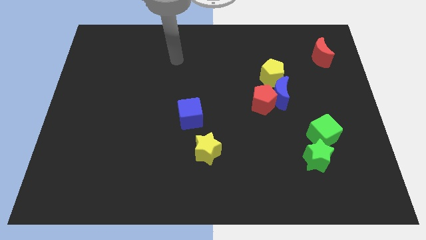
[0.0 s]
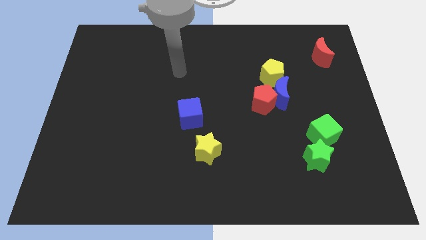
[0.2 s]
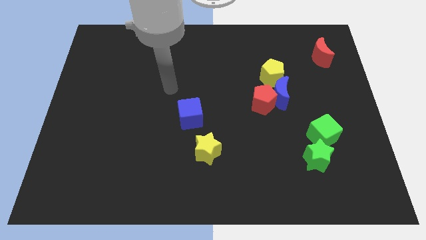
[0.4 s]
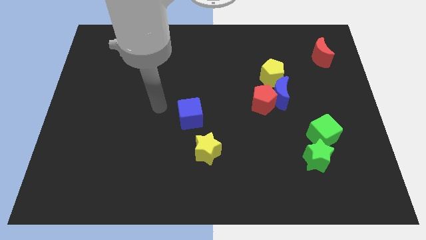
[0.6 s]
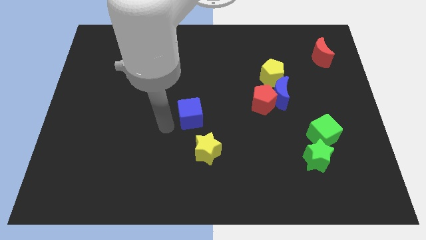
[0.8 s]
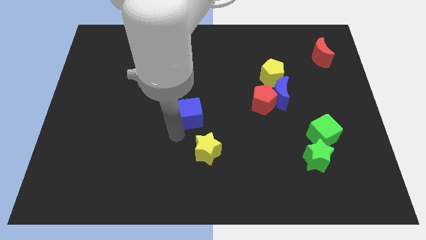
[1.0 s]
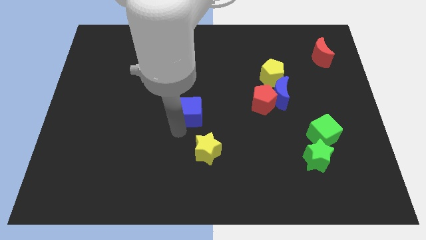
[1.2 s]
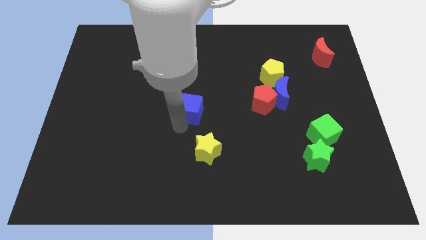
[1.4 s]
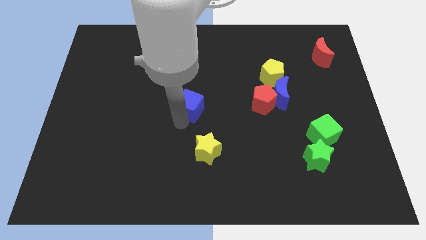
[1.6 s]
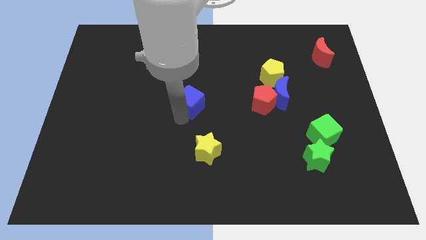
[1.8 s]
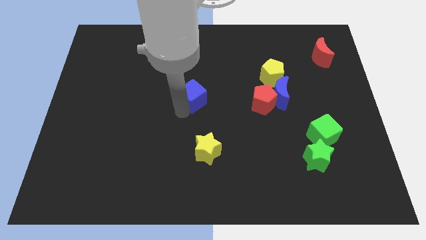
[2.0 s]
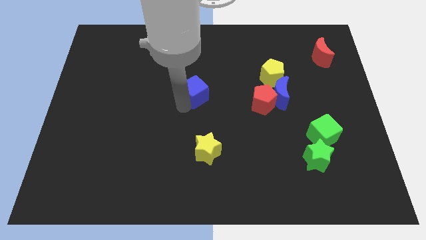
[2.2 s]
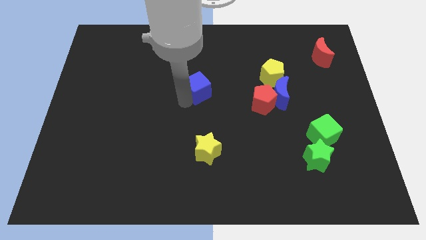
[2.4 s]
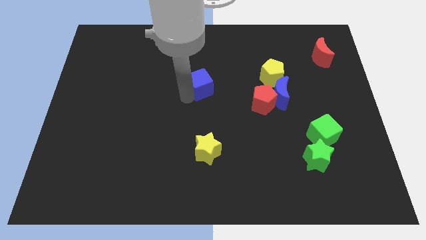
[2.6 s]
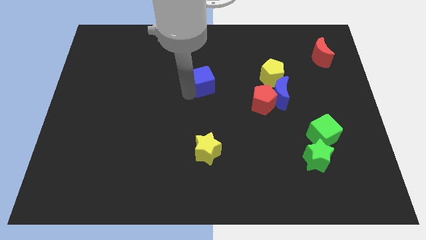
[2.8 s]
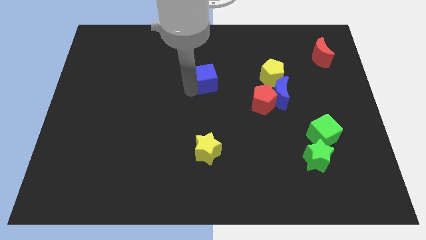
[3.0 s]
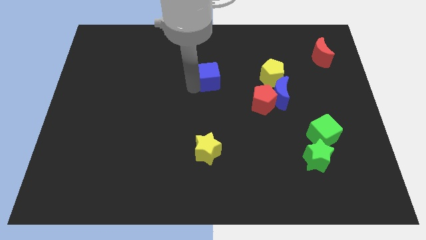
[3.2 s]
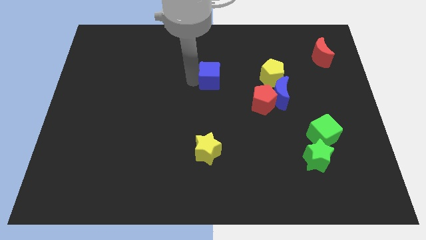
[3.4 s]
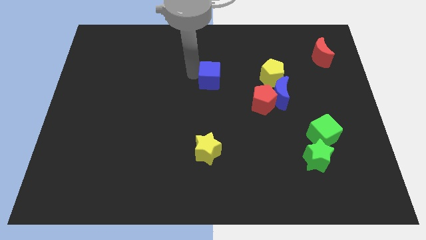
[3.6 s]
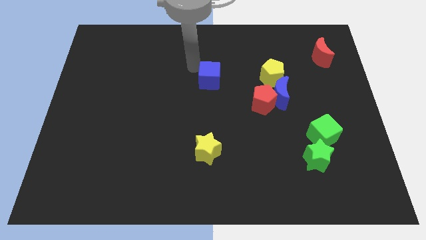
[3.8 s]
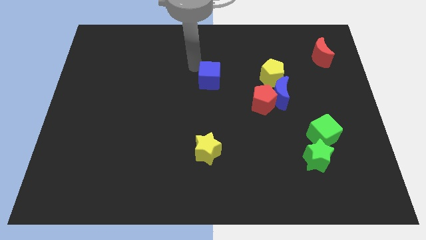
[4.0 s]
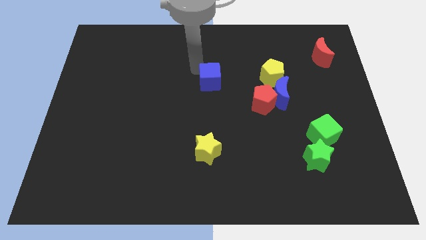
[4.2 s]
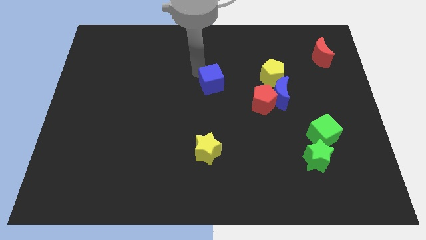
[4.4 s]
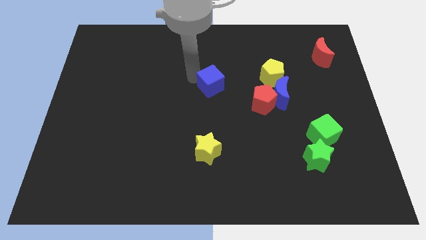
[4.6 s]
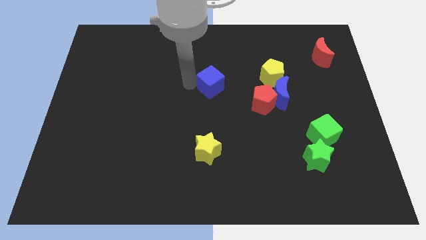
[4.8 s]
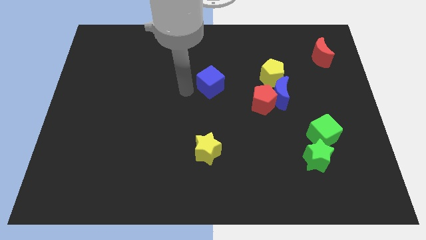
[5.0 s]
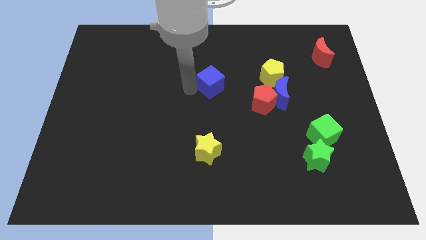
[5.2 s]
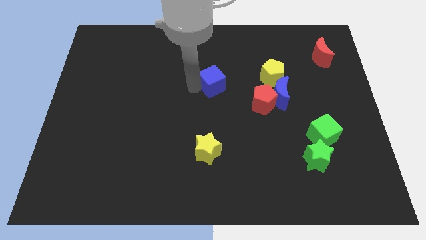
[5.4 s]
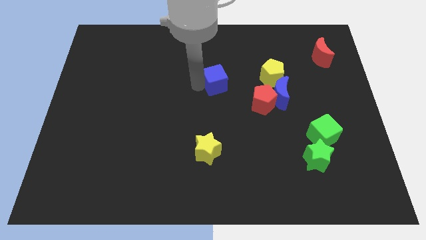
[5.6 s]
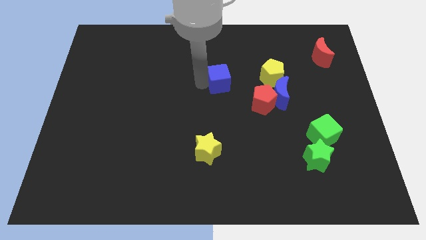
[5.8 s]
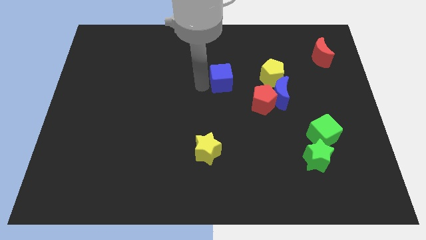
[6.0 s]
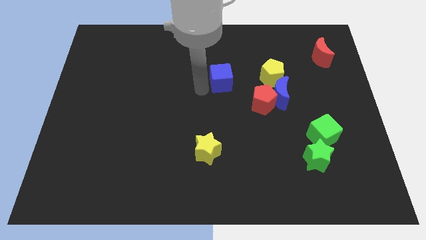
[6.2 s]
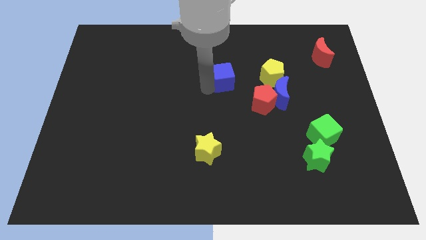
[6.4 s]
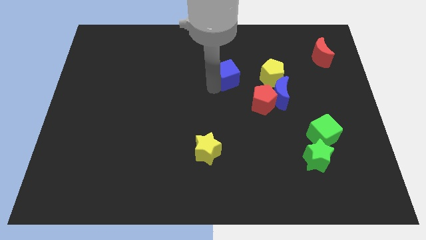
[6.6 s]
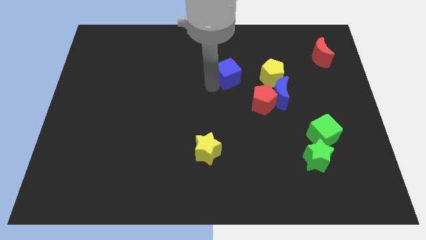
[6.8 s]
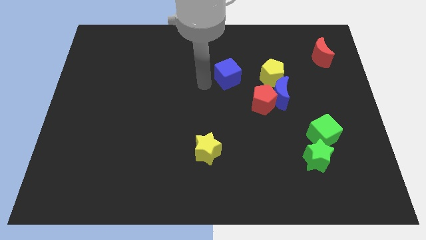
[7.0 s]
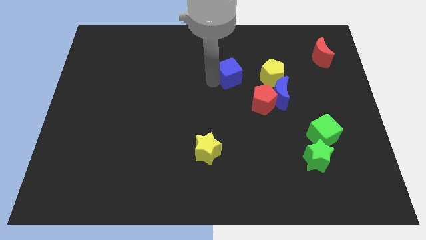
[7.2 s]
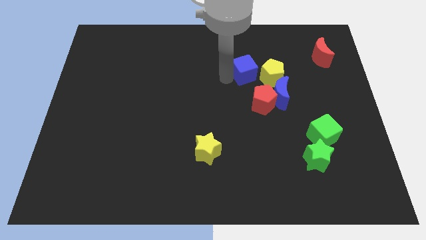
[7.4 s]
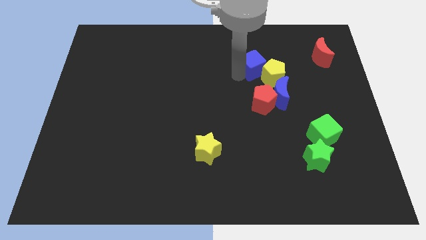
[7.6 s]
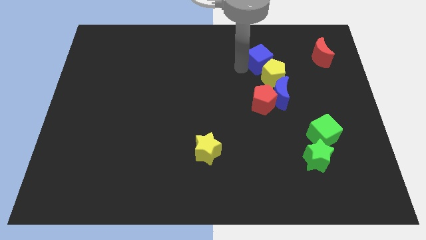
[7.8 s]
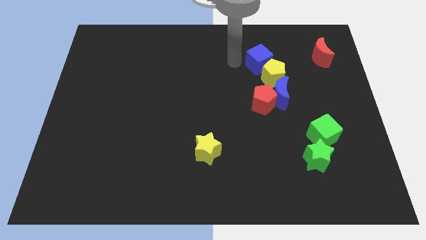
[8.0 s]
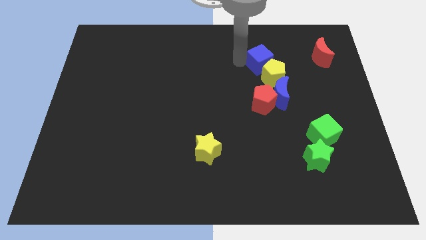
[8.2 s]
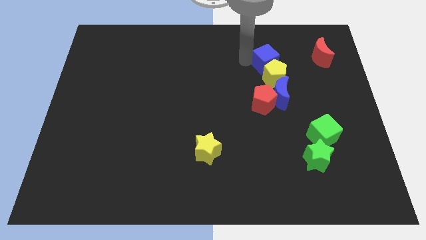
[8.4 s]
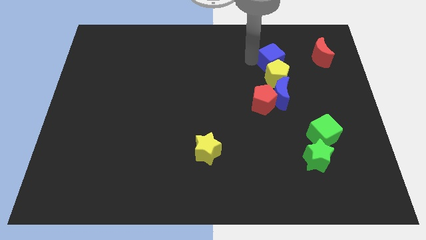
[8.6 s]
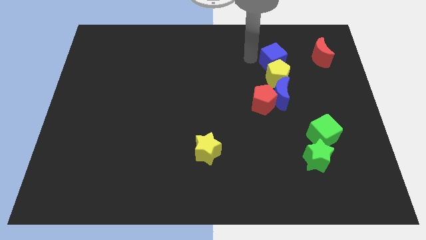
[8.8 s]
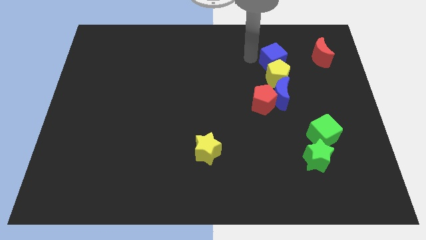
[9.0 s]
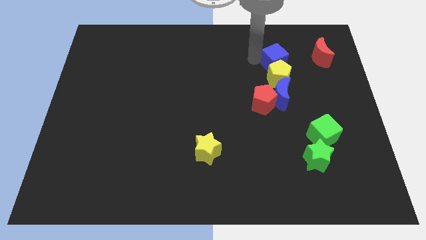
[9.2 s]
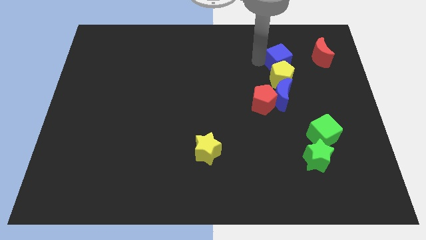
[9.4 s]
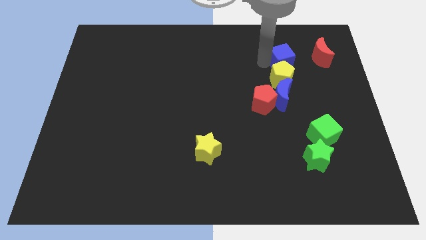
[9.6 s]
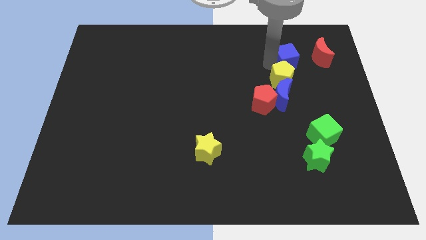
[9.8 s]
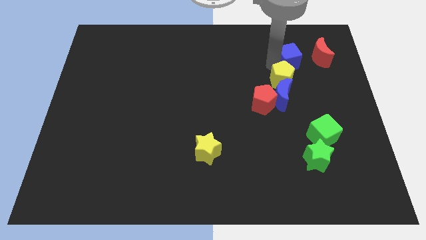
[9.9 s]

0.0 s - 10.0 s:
put the blue cube to the bottom left side of the red moon

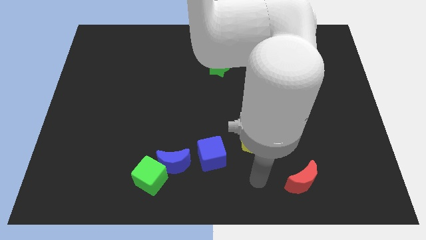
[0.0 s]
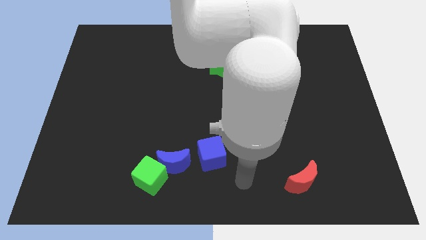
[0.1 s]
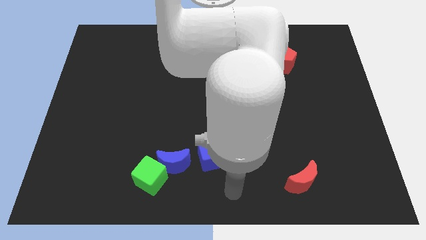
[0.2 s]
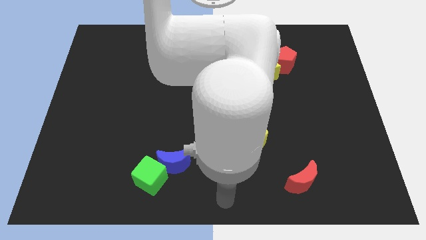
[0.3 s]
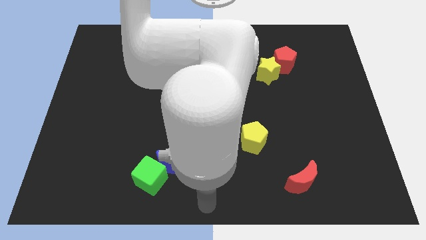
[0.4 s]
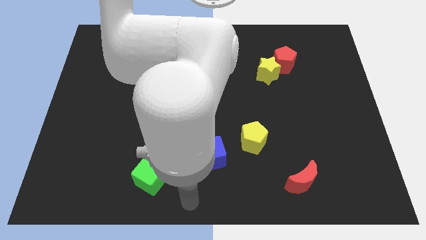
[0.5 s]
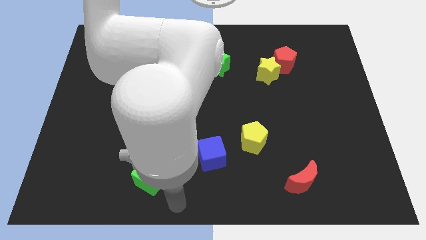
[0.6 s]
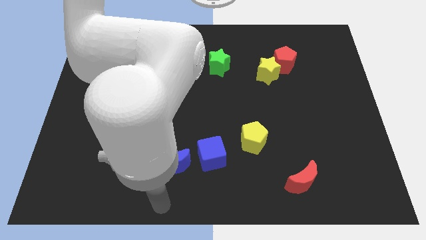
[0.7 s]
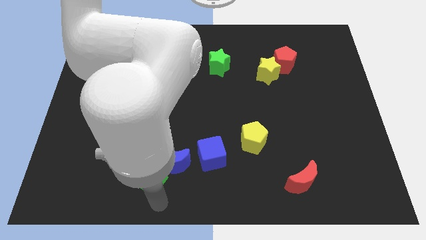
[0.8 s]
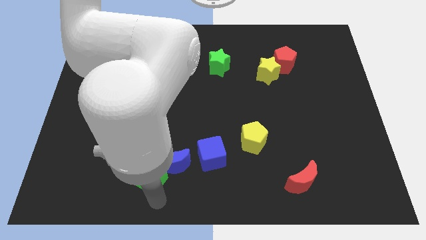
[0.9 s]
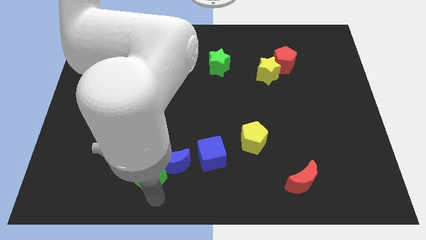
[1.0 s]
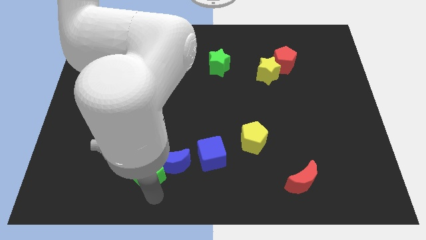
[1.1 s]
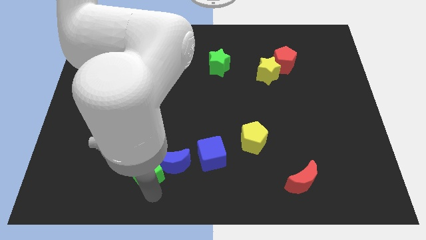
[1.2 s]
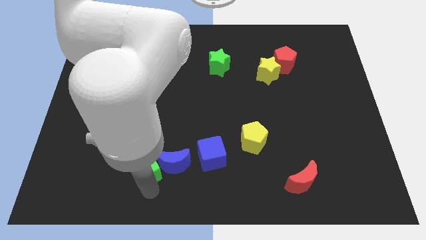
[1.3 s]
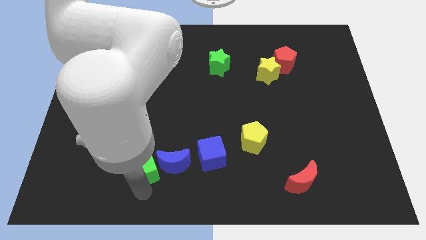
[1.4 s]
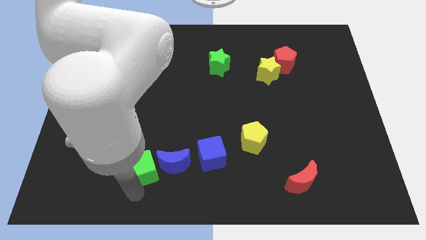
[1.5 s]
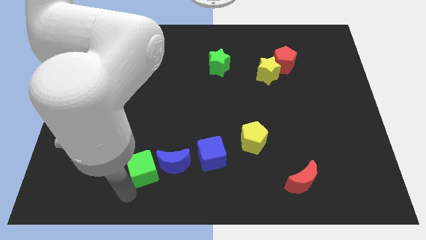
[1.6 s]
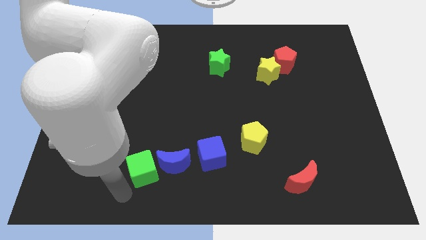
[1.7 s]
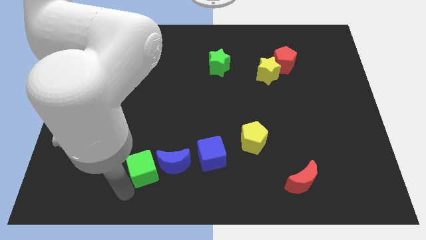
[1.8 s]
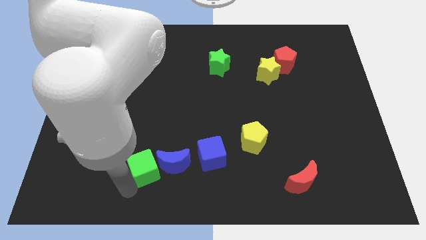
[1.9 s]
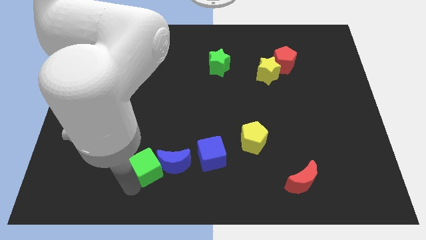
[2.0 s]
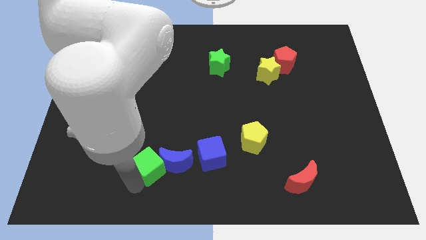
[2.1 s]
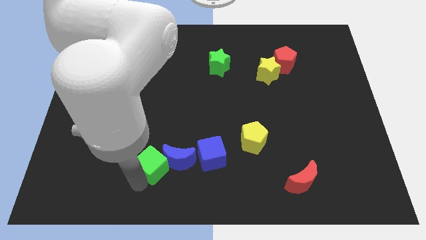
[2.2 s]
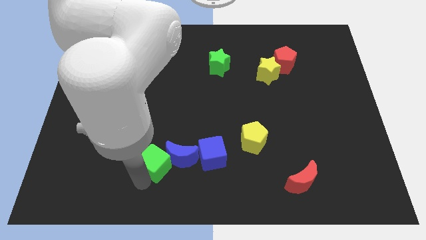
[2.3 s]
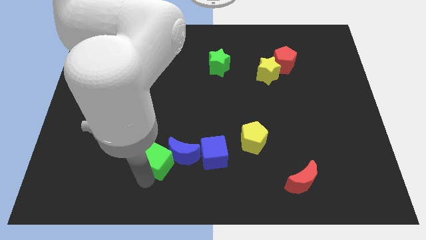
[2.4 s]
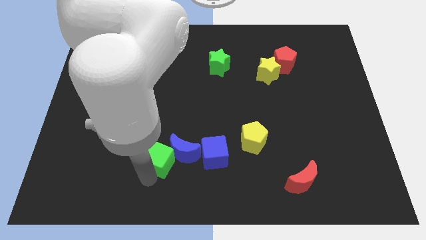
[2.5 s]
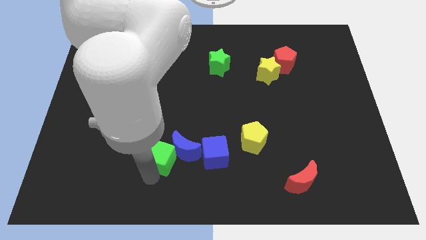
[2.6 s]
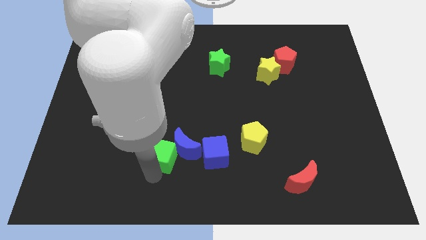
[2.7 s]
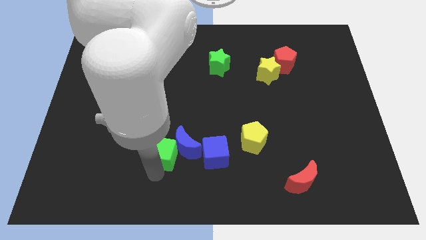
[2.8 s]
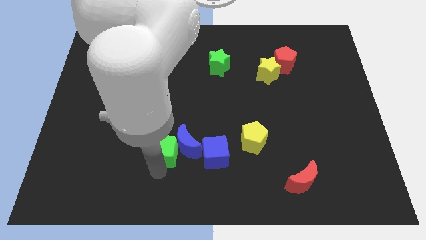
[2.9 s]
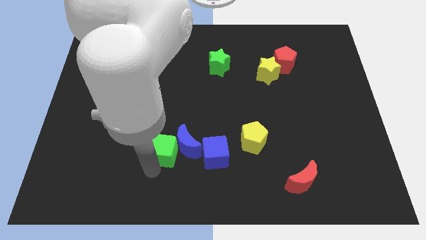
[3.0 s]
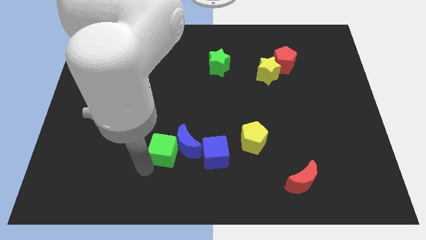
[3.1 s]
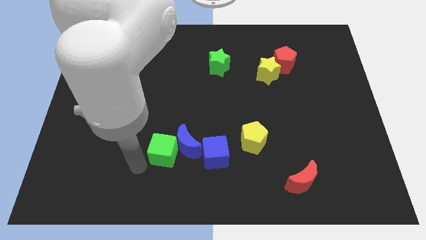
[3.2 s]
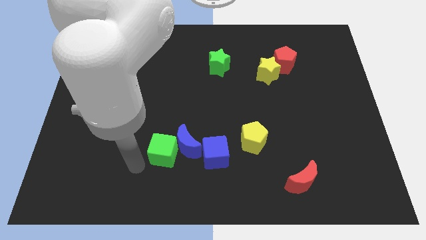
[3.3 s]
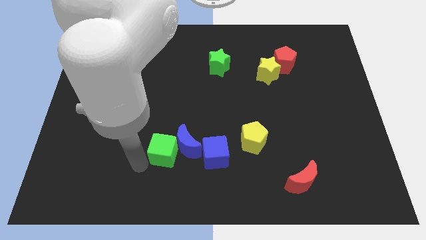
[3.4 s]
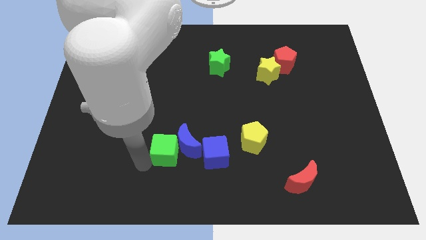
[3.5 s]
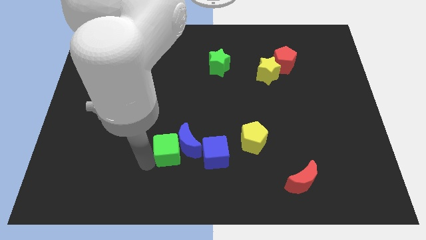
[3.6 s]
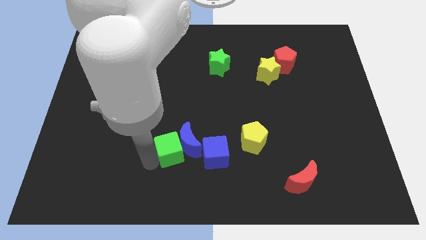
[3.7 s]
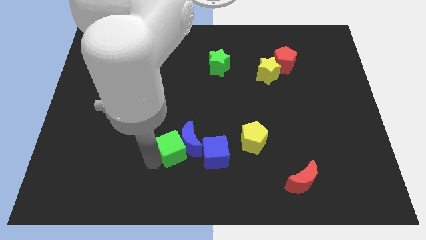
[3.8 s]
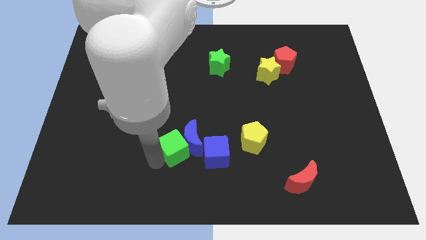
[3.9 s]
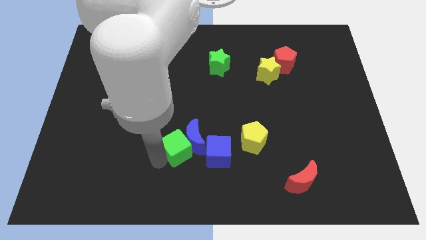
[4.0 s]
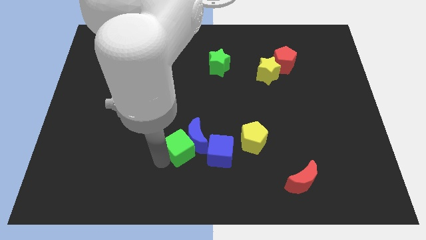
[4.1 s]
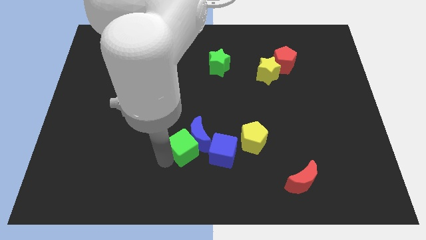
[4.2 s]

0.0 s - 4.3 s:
slide the green cube just left of the yellow pentagon
